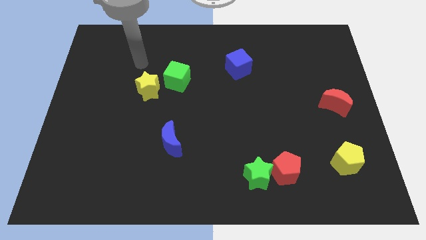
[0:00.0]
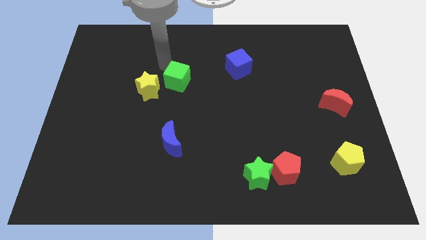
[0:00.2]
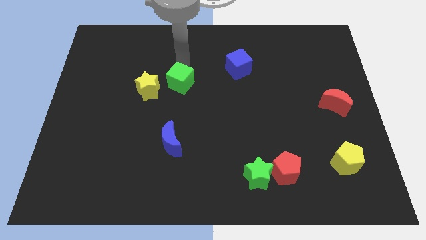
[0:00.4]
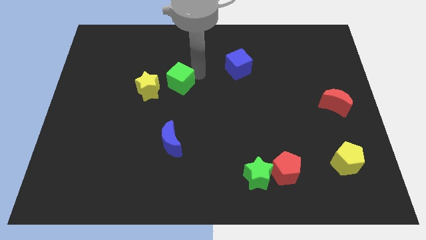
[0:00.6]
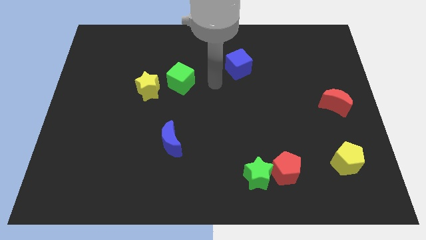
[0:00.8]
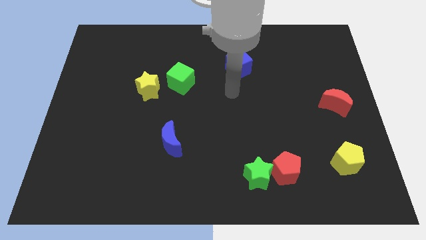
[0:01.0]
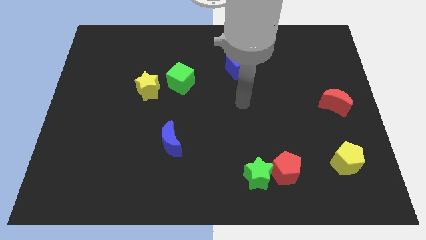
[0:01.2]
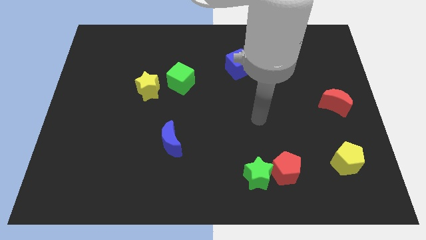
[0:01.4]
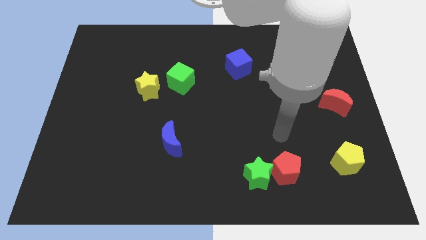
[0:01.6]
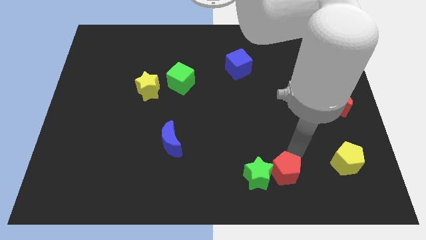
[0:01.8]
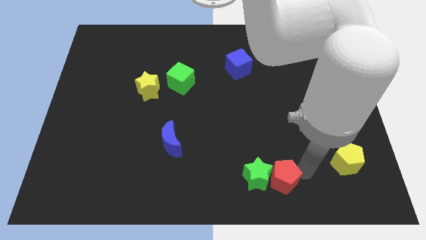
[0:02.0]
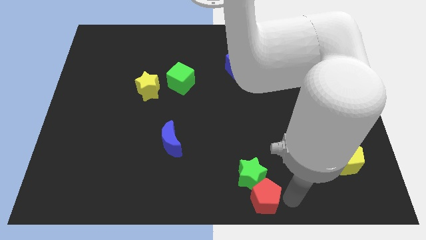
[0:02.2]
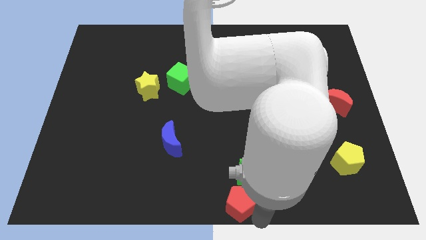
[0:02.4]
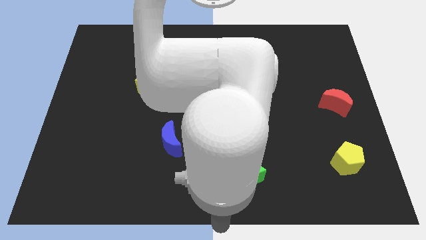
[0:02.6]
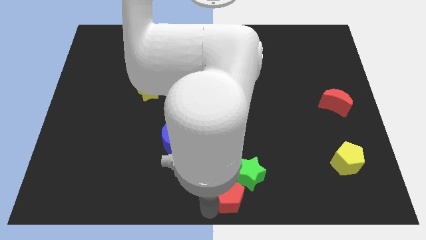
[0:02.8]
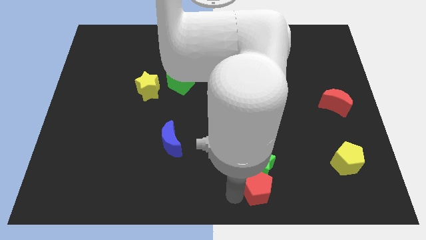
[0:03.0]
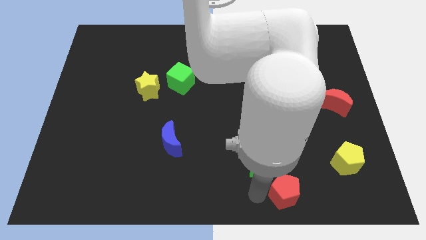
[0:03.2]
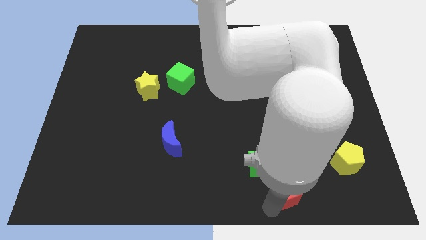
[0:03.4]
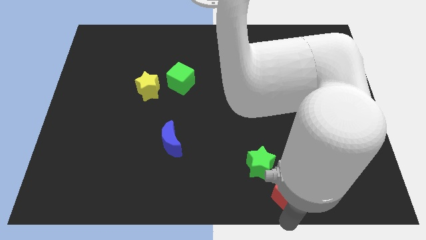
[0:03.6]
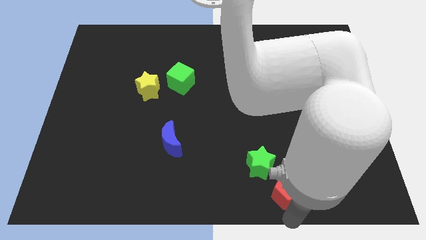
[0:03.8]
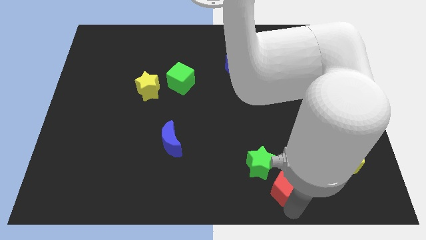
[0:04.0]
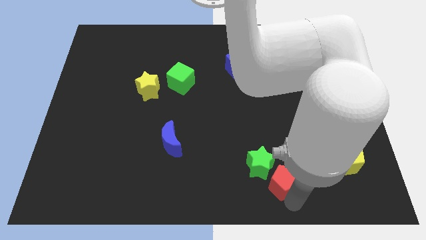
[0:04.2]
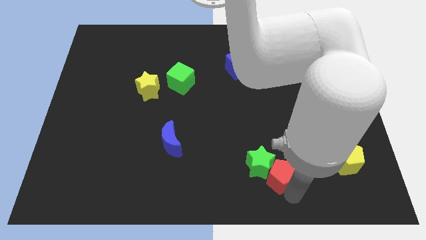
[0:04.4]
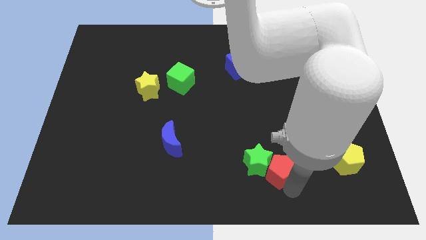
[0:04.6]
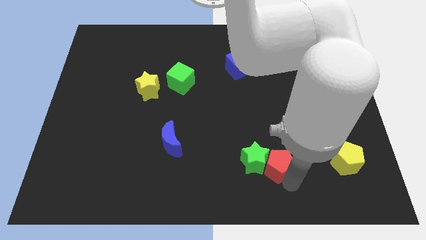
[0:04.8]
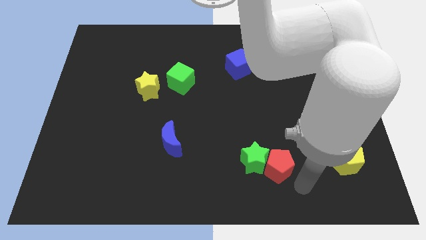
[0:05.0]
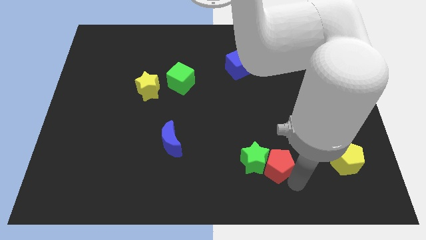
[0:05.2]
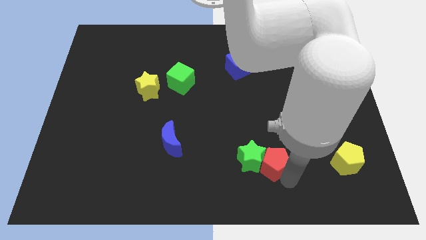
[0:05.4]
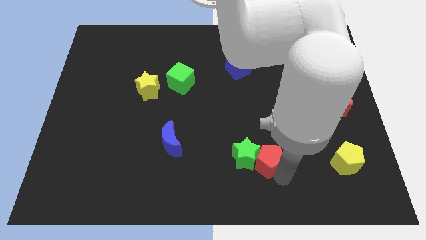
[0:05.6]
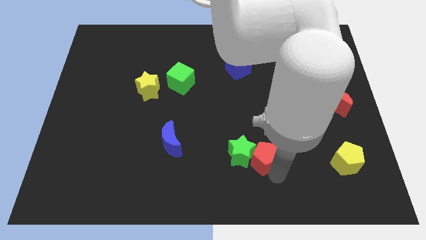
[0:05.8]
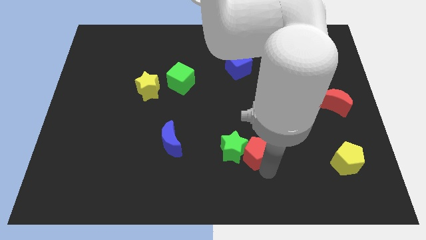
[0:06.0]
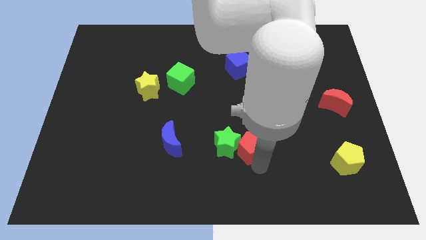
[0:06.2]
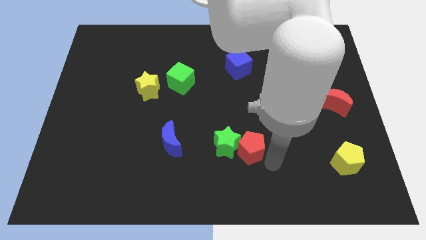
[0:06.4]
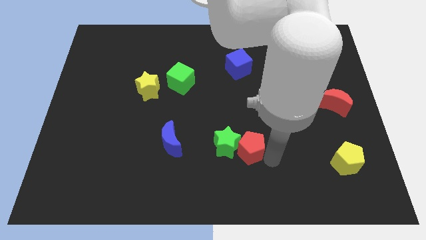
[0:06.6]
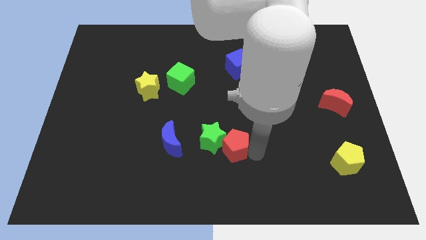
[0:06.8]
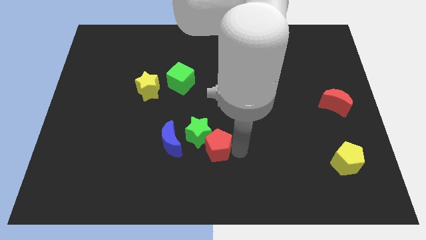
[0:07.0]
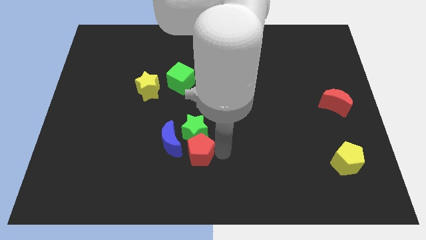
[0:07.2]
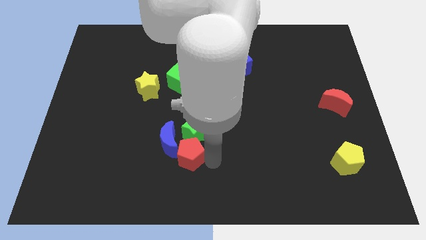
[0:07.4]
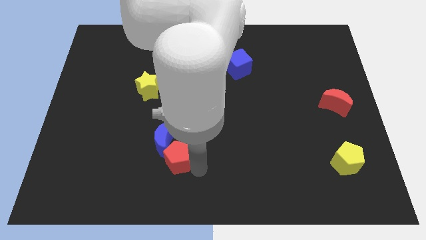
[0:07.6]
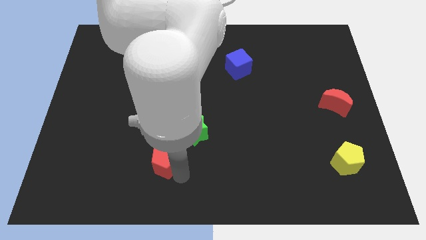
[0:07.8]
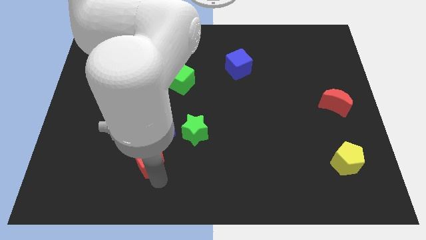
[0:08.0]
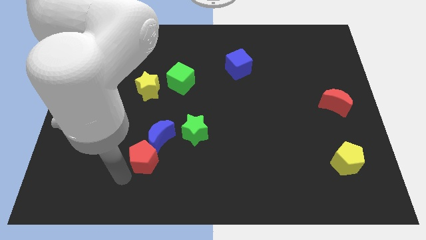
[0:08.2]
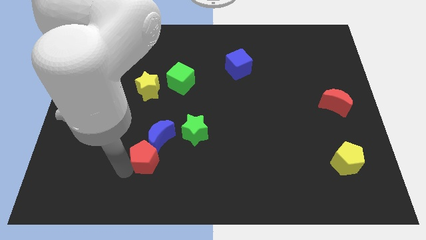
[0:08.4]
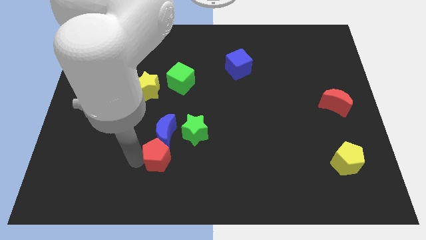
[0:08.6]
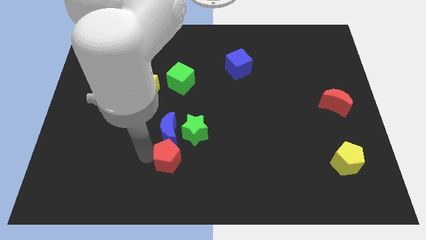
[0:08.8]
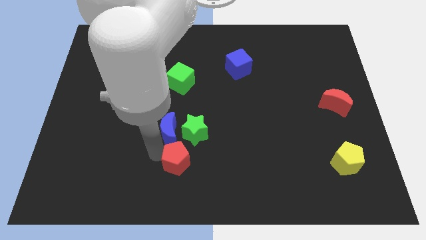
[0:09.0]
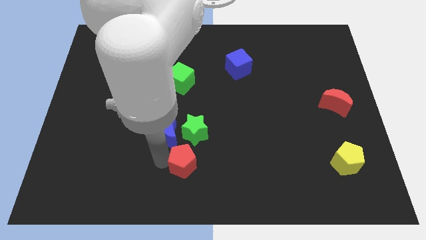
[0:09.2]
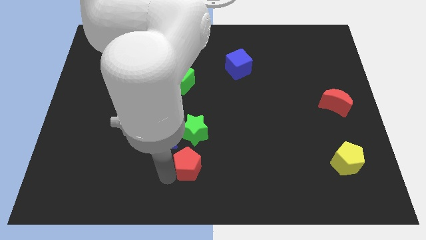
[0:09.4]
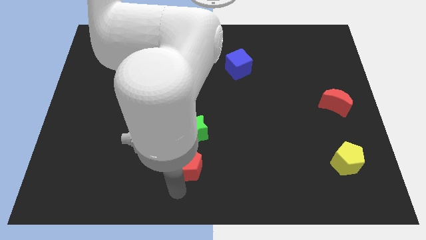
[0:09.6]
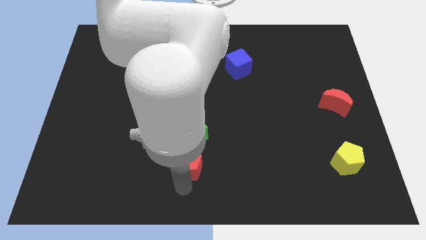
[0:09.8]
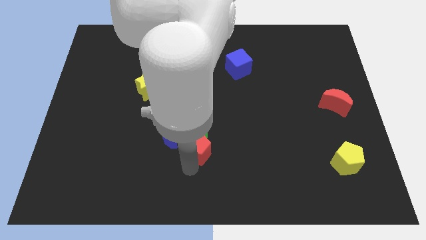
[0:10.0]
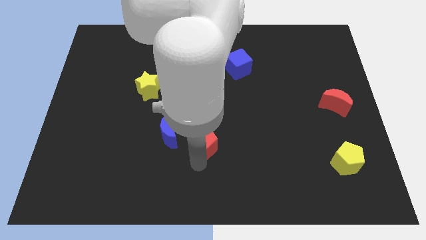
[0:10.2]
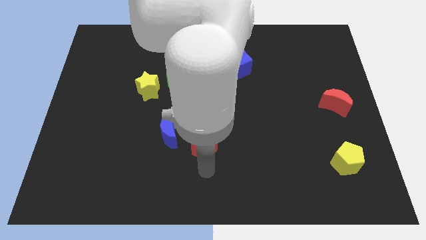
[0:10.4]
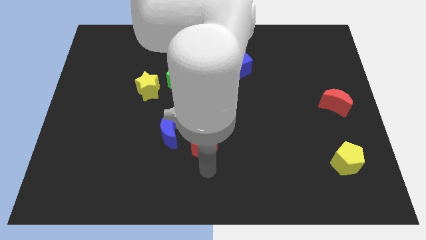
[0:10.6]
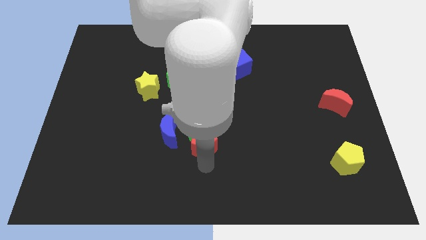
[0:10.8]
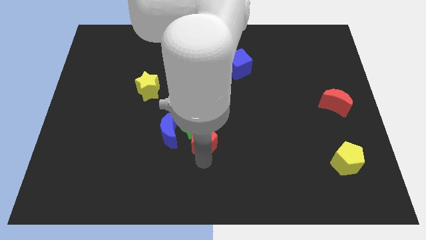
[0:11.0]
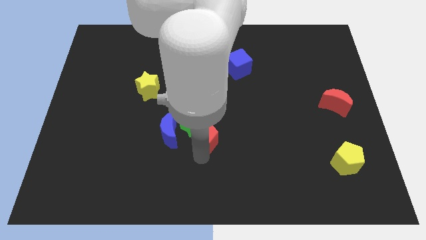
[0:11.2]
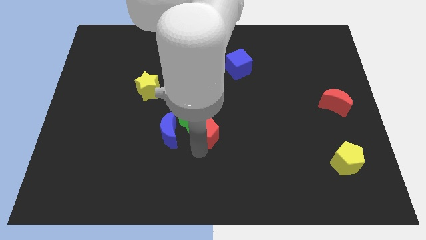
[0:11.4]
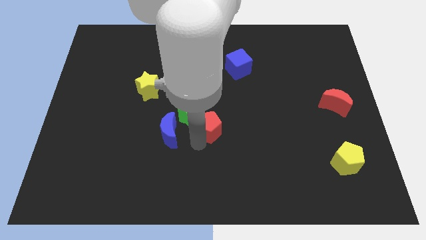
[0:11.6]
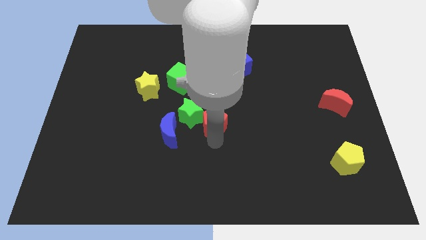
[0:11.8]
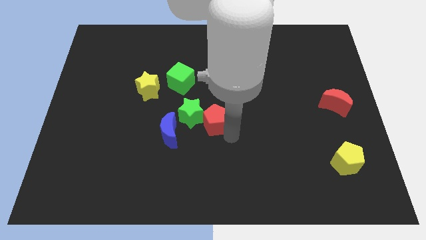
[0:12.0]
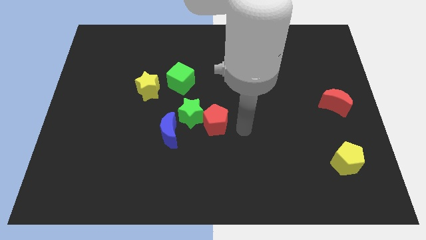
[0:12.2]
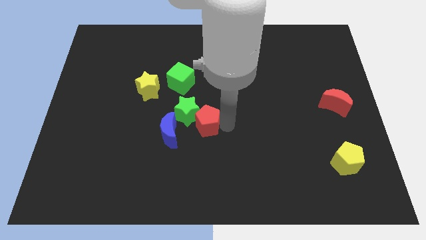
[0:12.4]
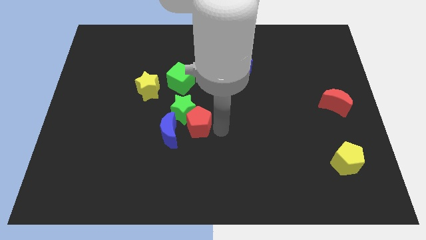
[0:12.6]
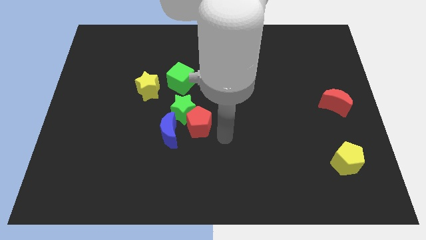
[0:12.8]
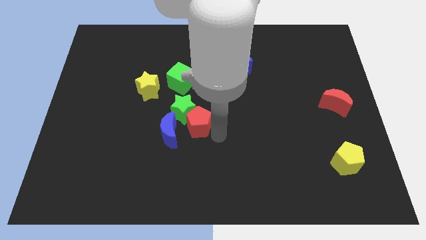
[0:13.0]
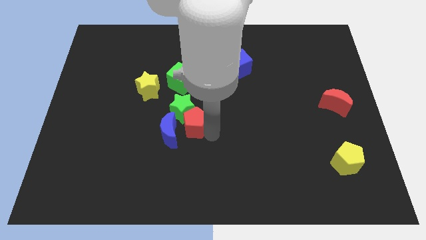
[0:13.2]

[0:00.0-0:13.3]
move the red pentagon to the bottom side of the green cube

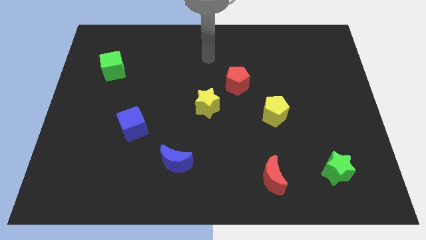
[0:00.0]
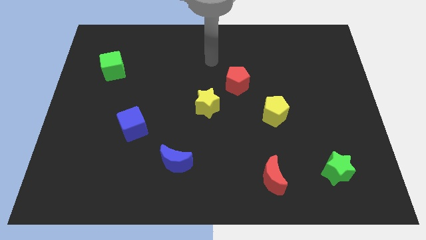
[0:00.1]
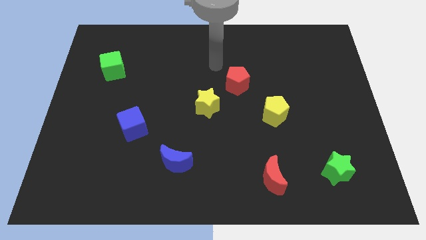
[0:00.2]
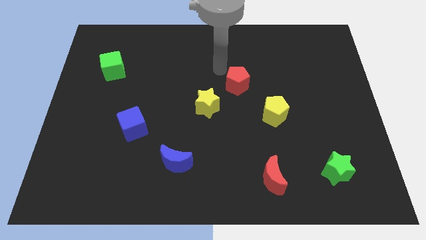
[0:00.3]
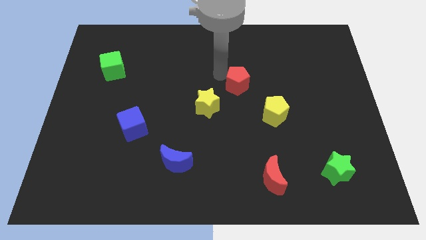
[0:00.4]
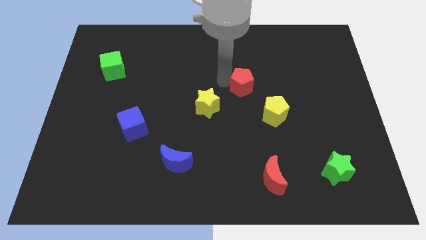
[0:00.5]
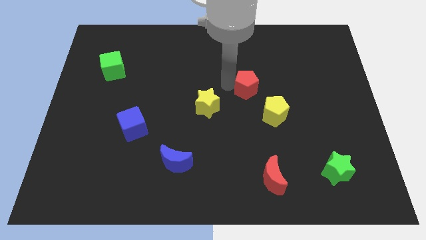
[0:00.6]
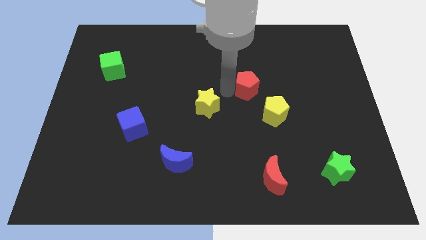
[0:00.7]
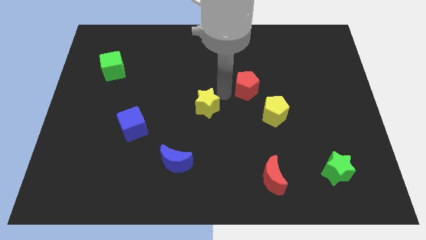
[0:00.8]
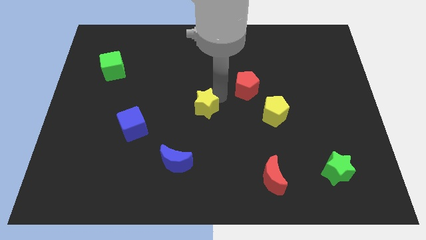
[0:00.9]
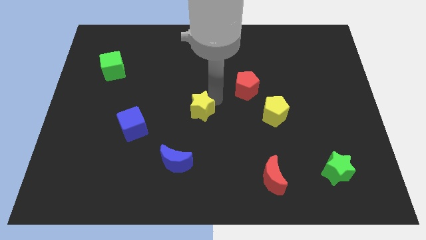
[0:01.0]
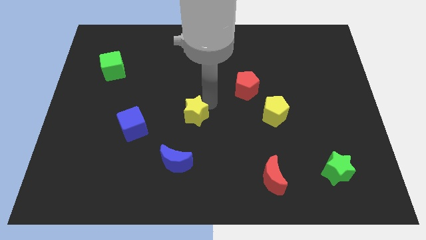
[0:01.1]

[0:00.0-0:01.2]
put the yellow star above the blue moon
